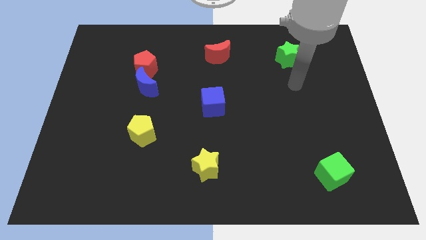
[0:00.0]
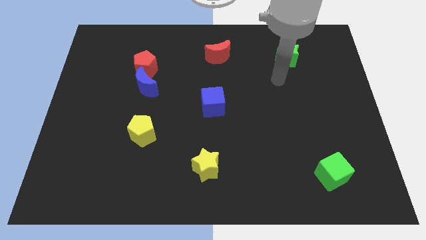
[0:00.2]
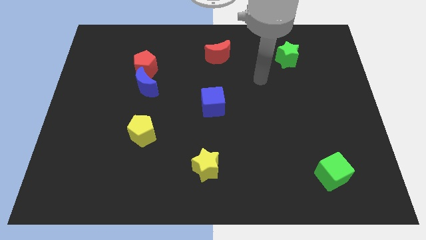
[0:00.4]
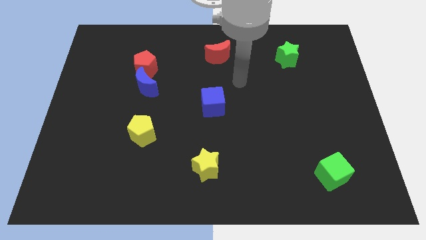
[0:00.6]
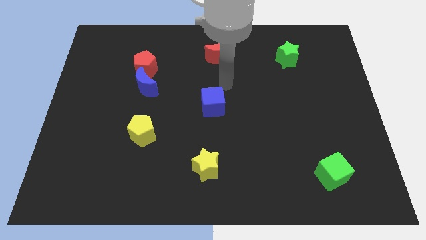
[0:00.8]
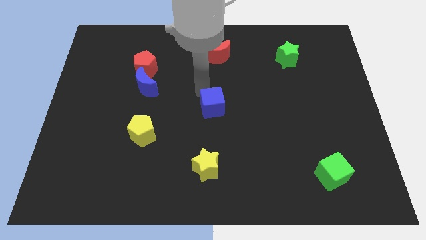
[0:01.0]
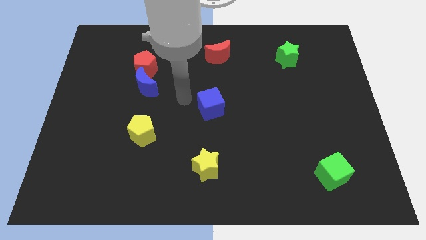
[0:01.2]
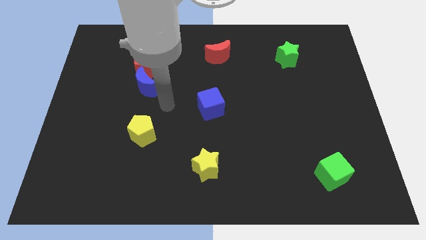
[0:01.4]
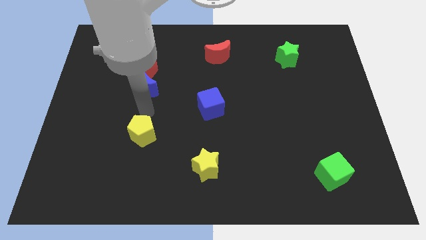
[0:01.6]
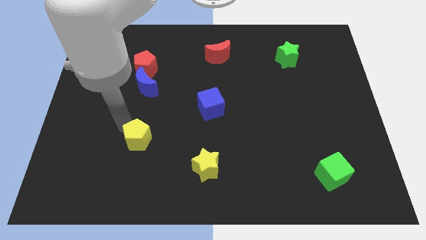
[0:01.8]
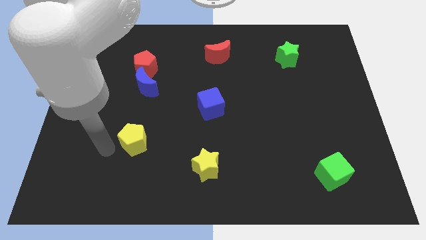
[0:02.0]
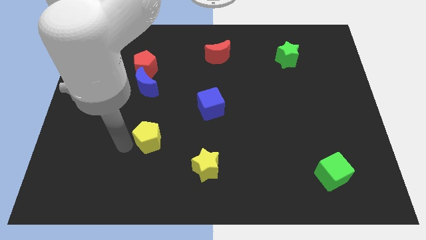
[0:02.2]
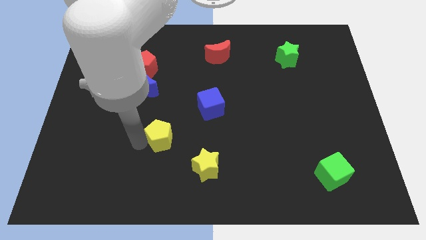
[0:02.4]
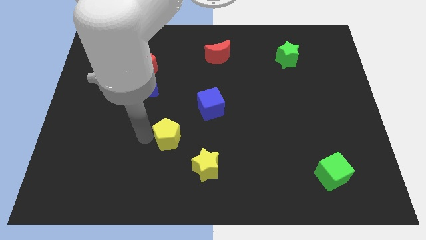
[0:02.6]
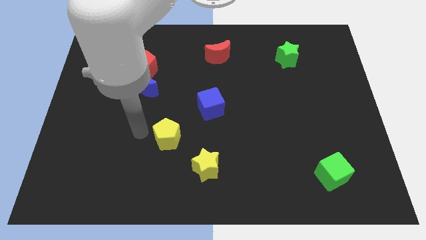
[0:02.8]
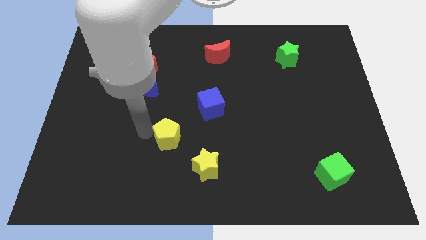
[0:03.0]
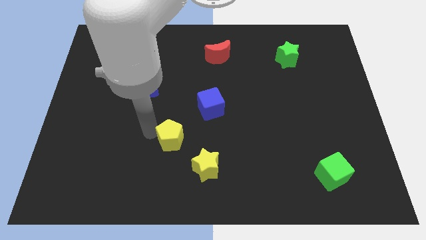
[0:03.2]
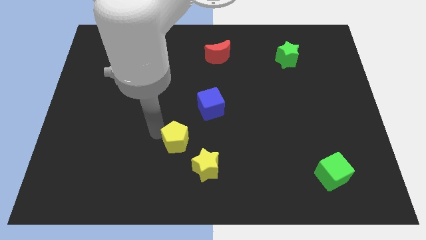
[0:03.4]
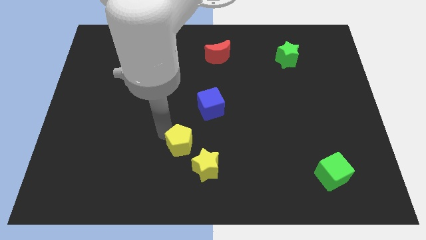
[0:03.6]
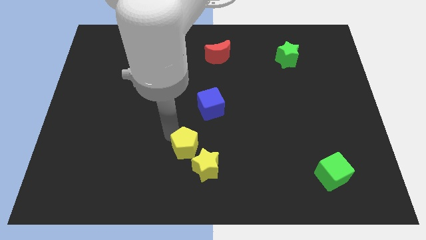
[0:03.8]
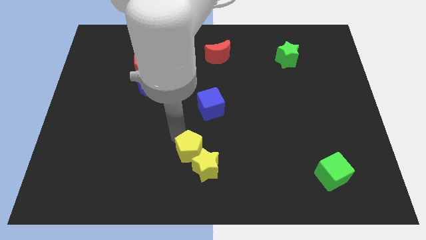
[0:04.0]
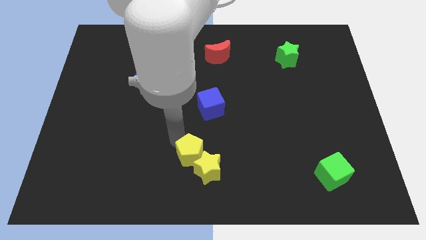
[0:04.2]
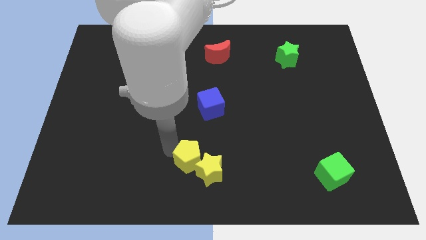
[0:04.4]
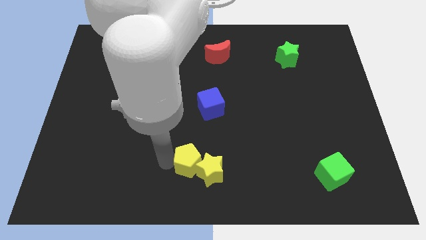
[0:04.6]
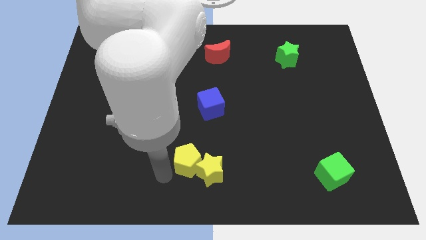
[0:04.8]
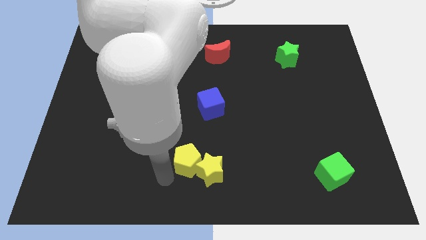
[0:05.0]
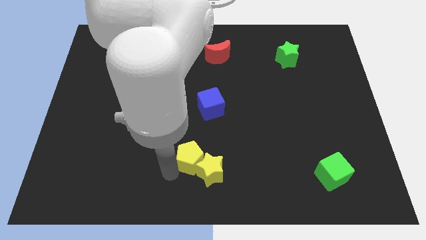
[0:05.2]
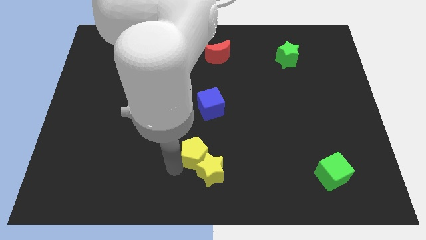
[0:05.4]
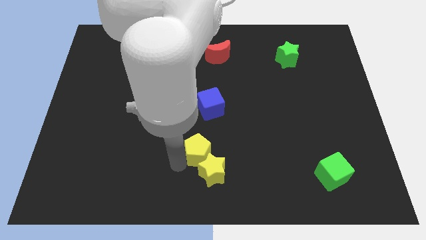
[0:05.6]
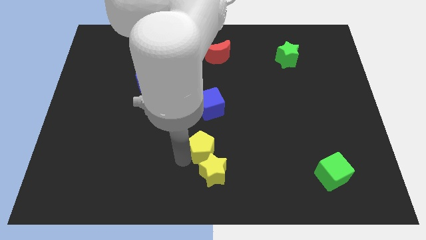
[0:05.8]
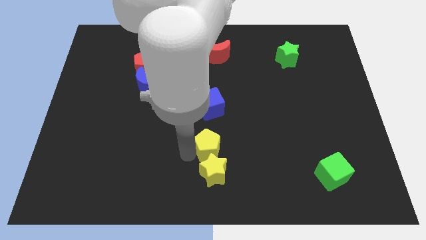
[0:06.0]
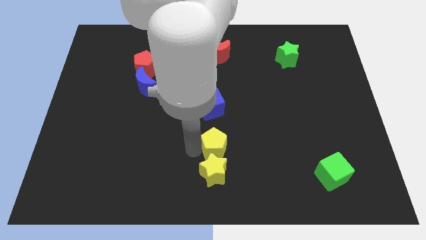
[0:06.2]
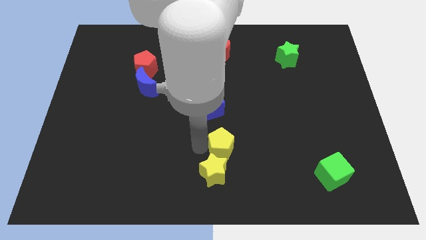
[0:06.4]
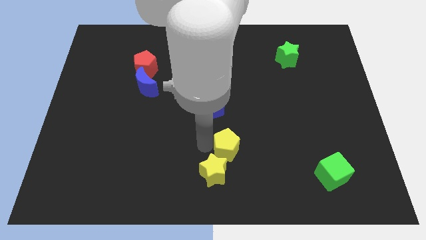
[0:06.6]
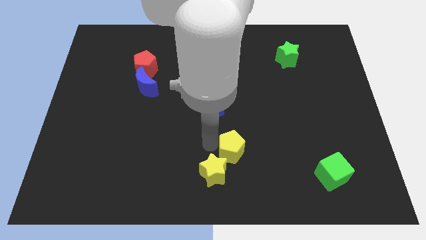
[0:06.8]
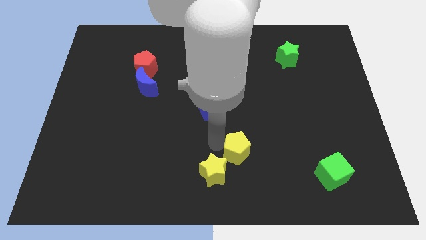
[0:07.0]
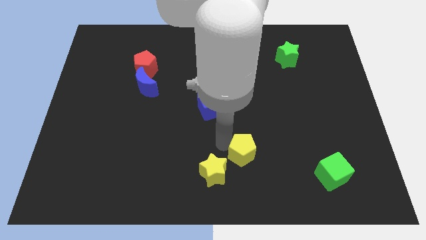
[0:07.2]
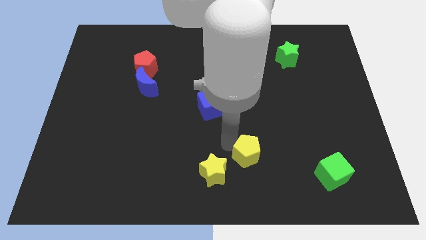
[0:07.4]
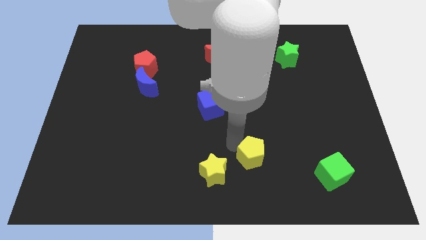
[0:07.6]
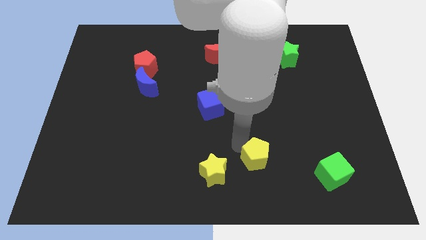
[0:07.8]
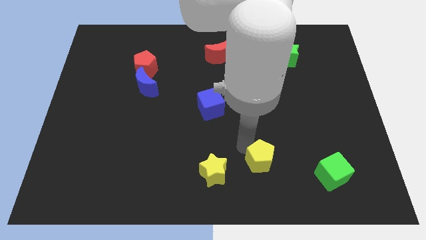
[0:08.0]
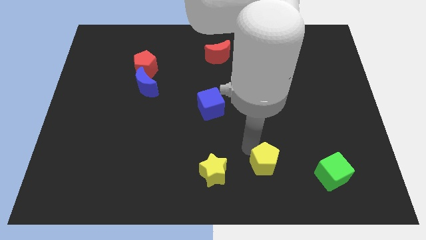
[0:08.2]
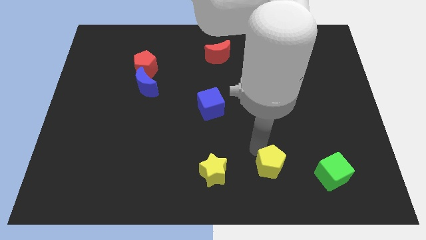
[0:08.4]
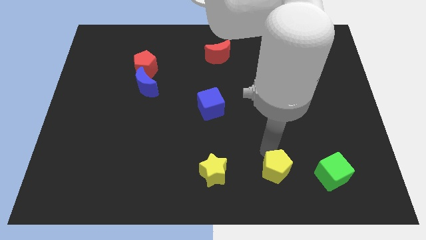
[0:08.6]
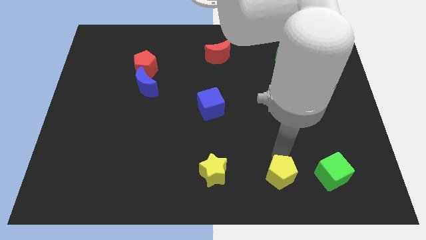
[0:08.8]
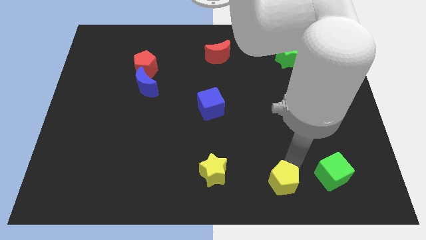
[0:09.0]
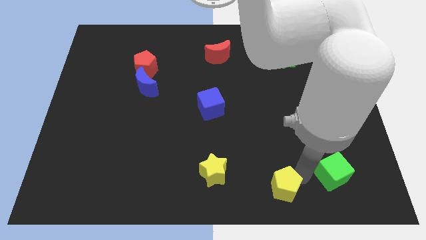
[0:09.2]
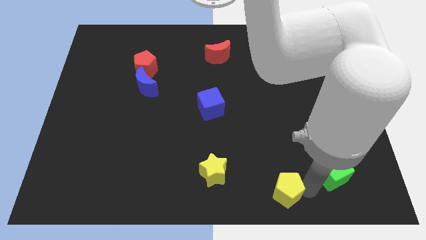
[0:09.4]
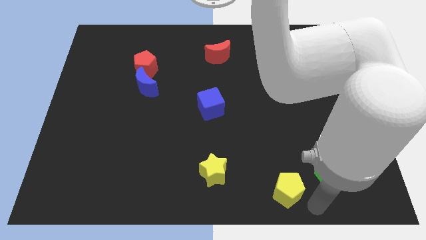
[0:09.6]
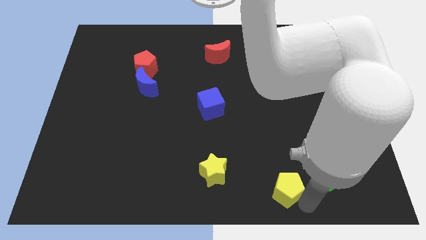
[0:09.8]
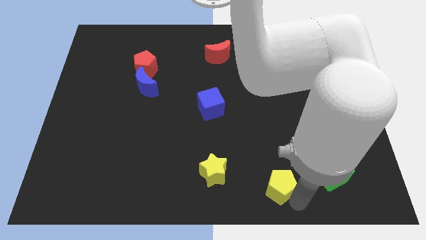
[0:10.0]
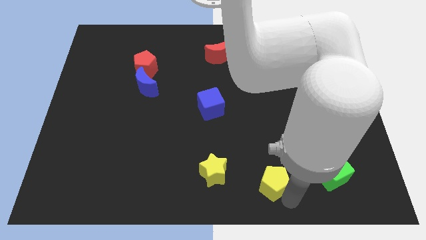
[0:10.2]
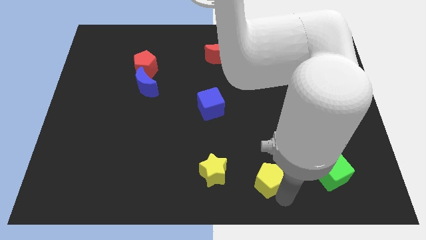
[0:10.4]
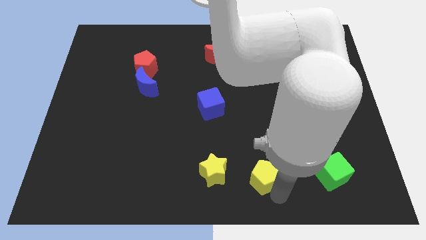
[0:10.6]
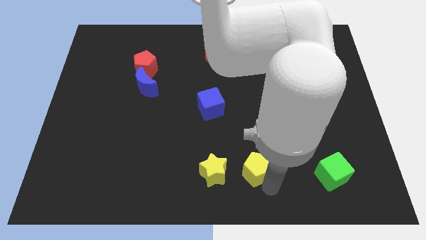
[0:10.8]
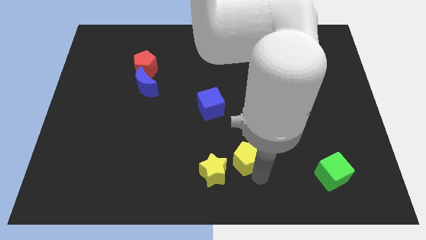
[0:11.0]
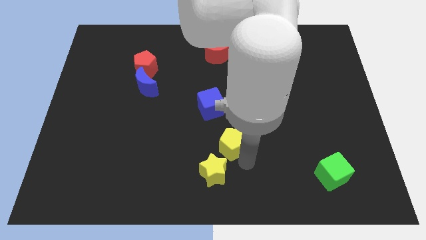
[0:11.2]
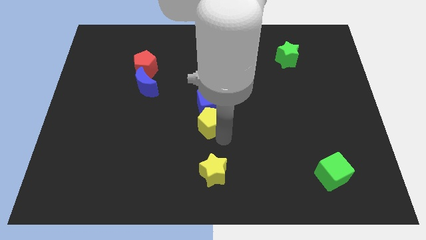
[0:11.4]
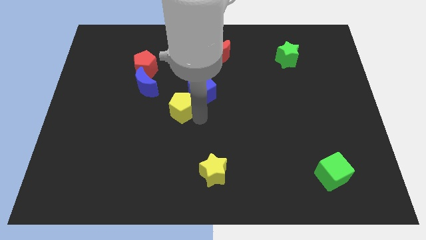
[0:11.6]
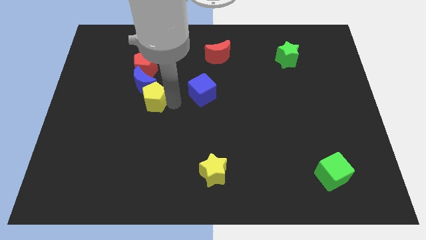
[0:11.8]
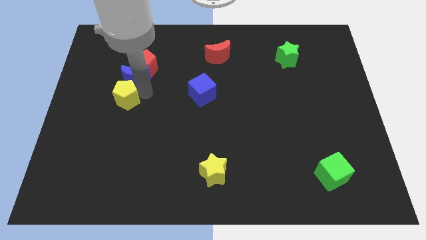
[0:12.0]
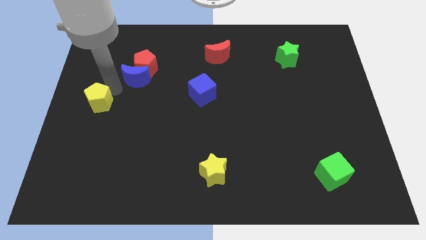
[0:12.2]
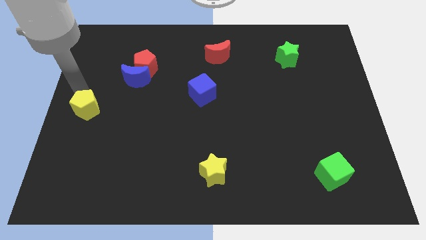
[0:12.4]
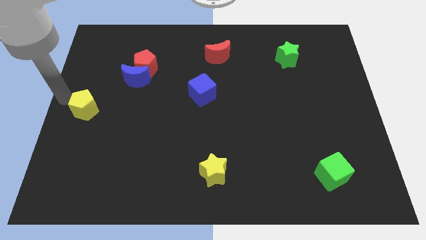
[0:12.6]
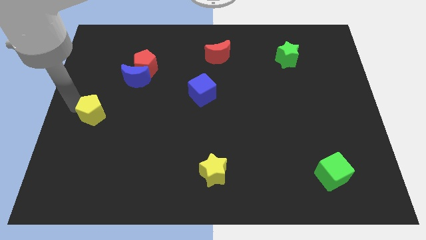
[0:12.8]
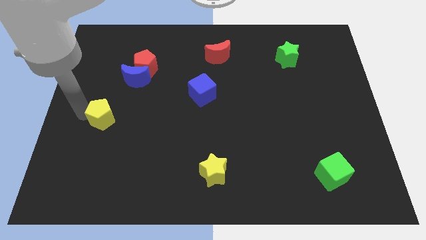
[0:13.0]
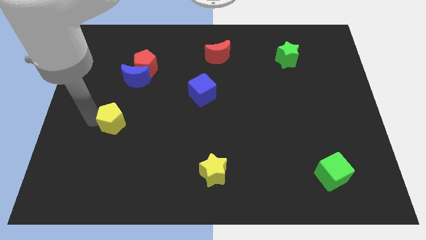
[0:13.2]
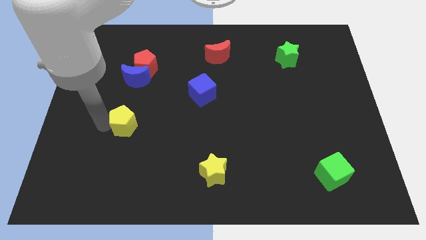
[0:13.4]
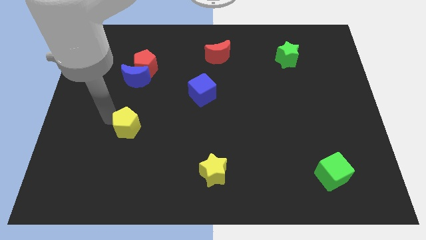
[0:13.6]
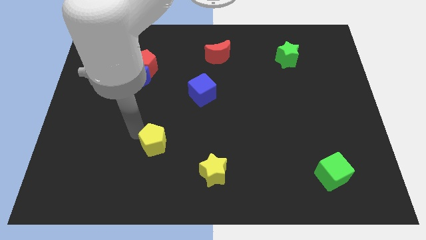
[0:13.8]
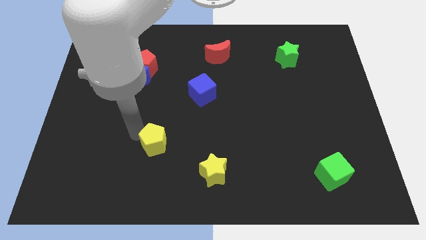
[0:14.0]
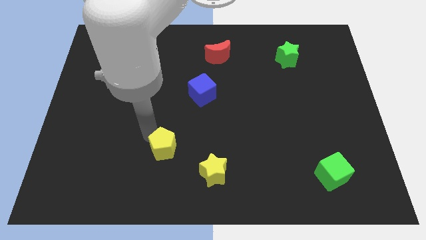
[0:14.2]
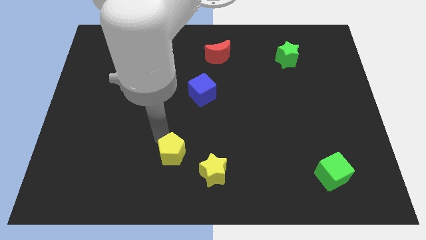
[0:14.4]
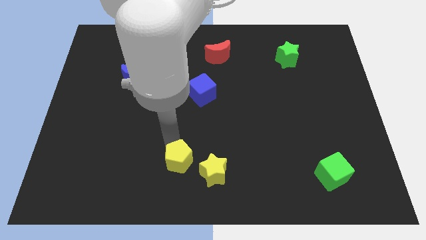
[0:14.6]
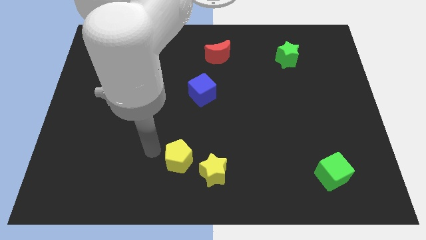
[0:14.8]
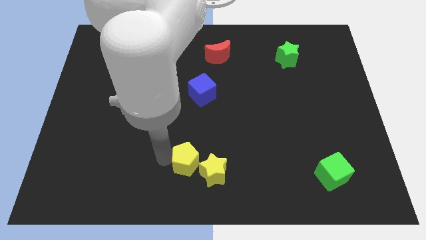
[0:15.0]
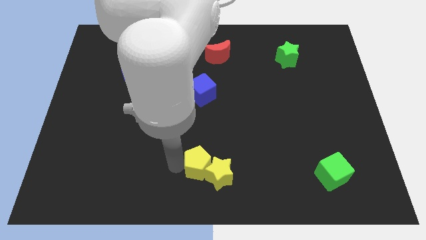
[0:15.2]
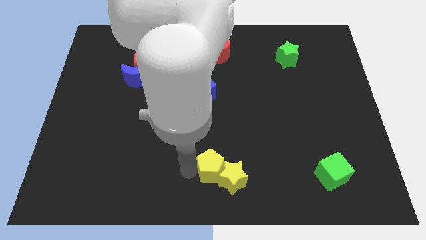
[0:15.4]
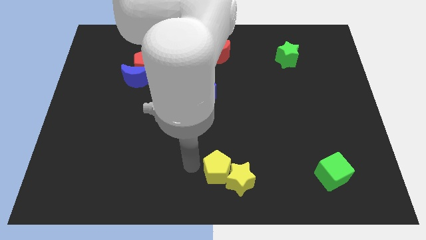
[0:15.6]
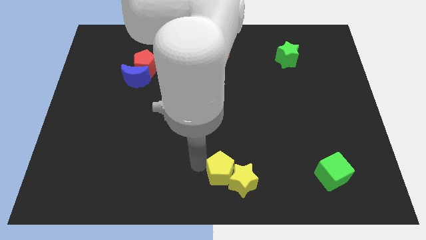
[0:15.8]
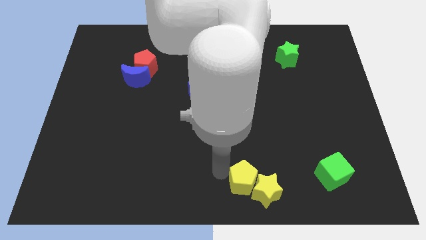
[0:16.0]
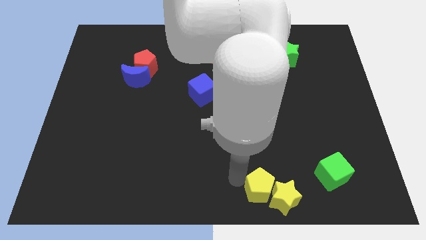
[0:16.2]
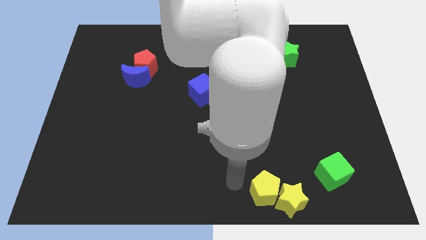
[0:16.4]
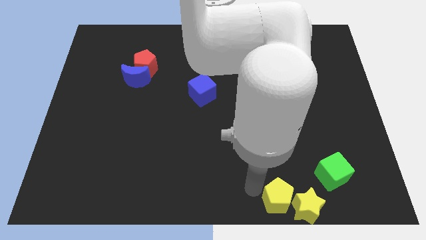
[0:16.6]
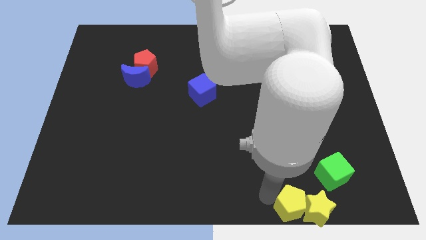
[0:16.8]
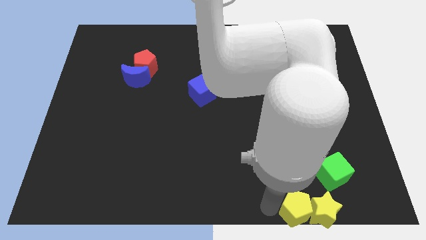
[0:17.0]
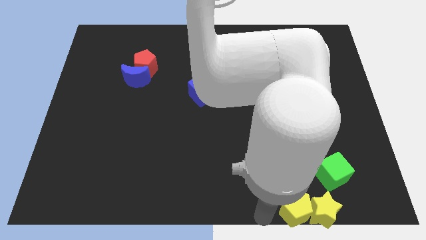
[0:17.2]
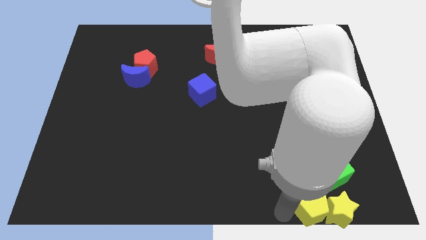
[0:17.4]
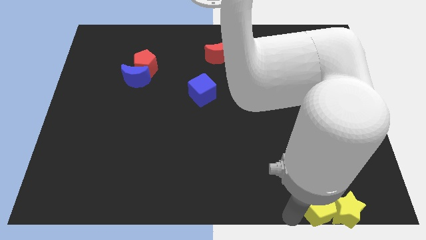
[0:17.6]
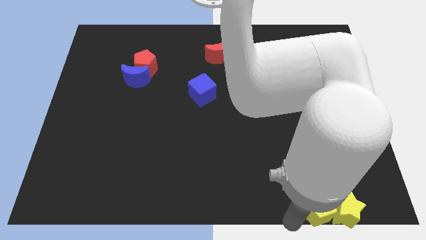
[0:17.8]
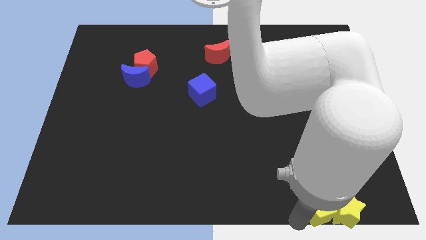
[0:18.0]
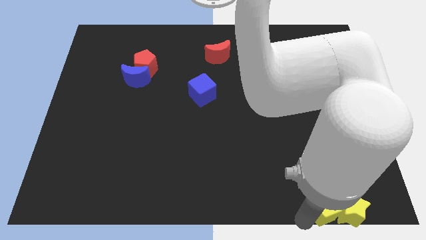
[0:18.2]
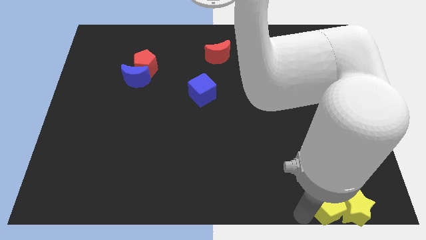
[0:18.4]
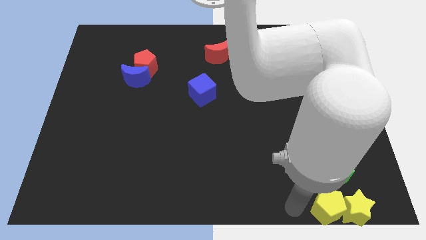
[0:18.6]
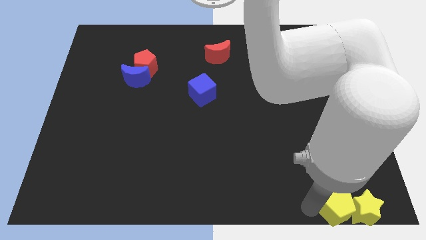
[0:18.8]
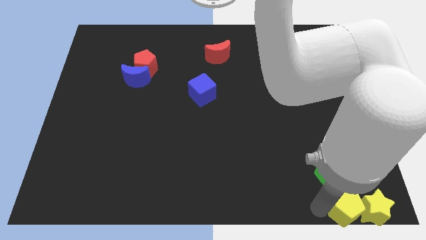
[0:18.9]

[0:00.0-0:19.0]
put the yellow pentagon to the bottom right of the board
